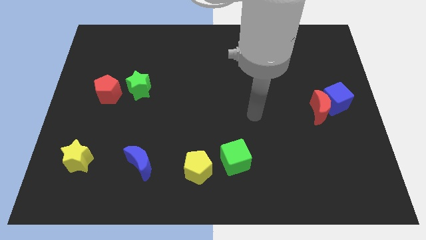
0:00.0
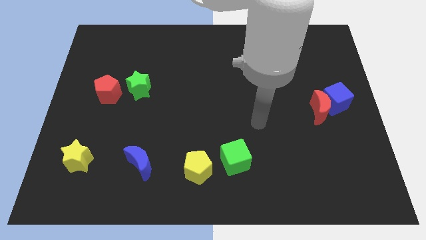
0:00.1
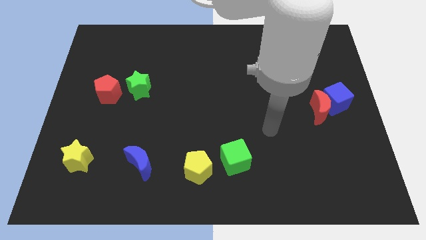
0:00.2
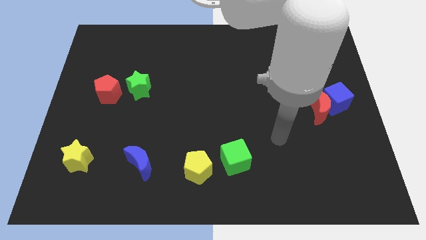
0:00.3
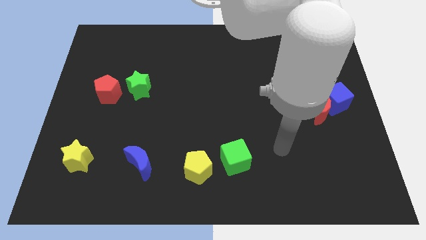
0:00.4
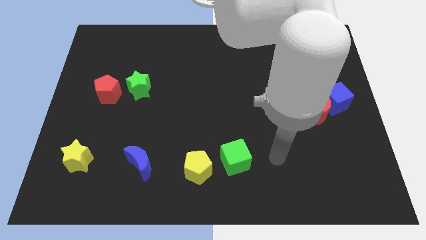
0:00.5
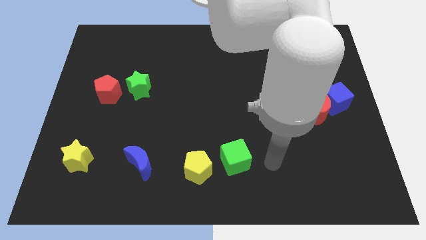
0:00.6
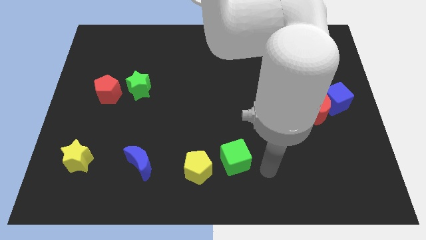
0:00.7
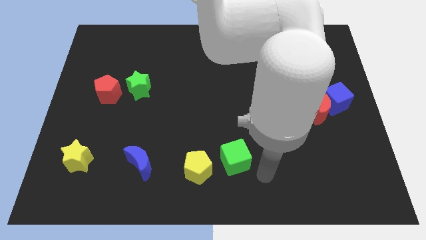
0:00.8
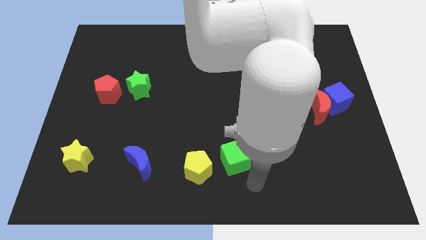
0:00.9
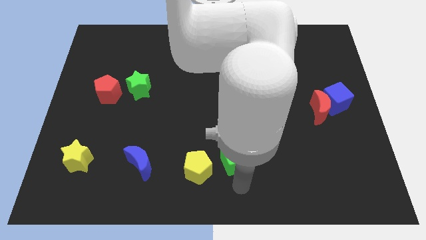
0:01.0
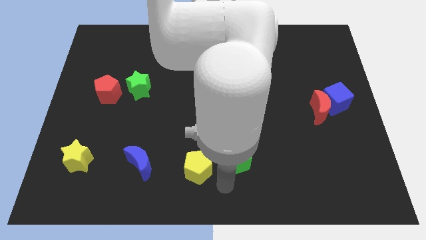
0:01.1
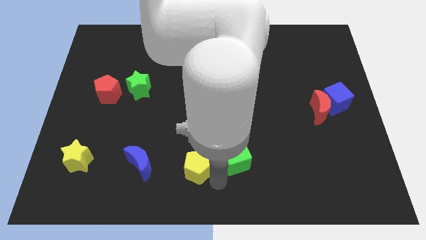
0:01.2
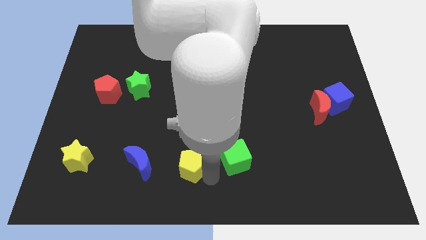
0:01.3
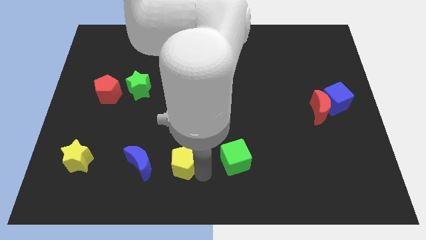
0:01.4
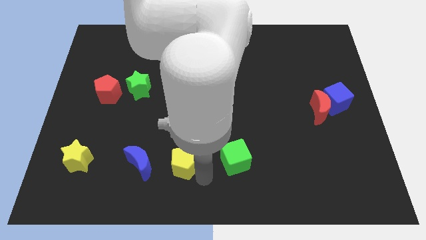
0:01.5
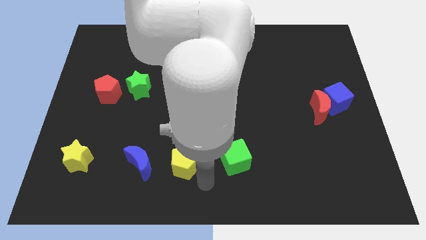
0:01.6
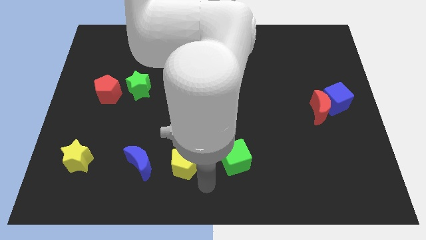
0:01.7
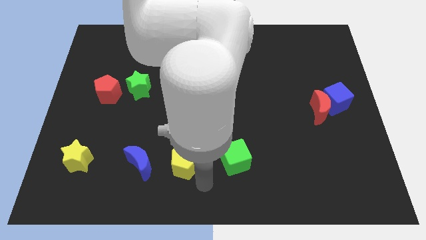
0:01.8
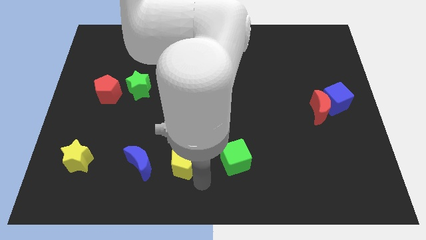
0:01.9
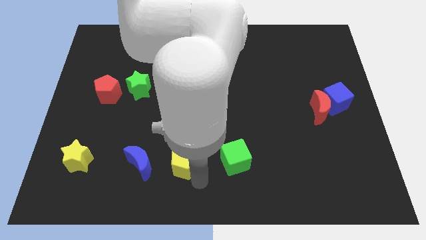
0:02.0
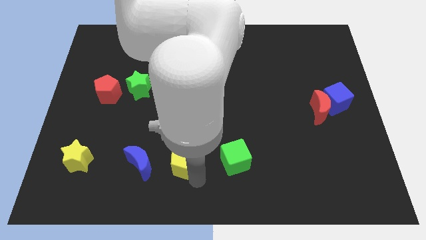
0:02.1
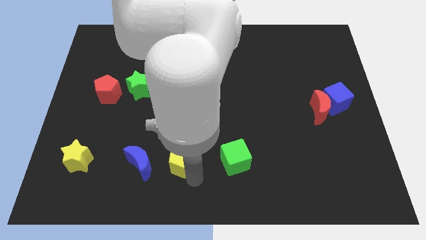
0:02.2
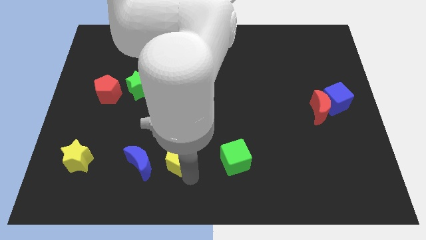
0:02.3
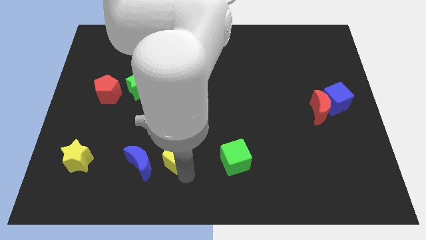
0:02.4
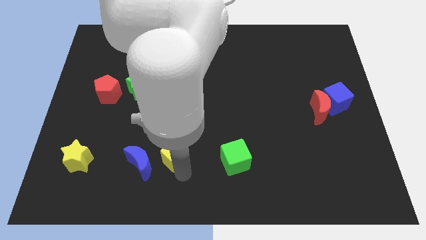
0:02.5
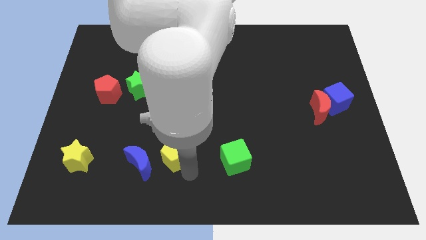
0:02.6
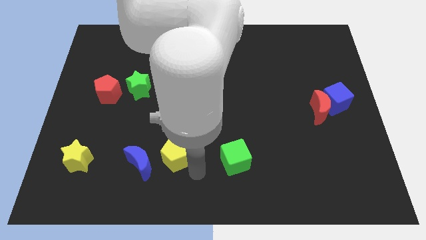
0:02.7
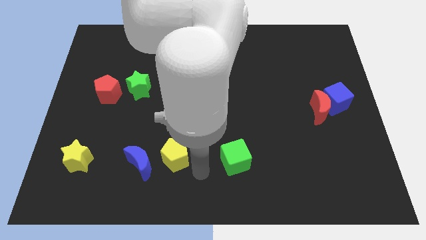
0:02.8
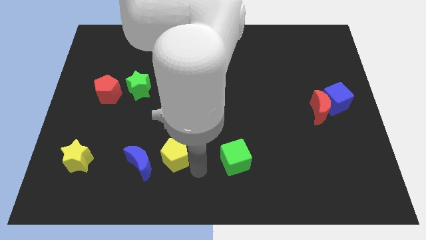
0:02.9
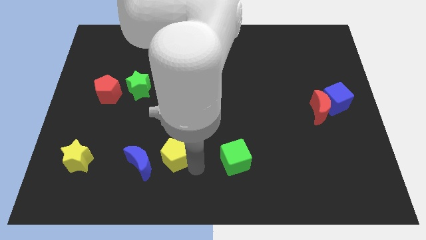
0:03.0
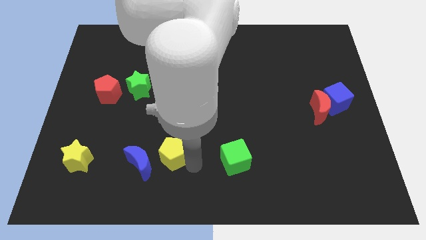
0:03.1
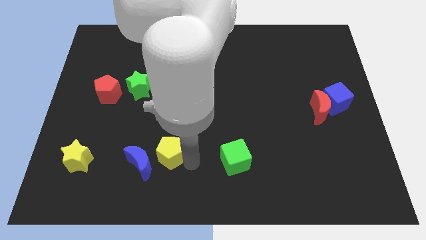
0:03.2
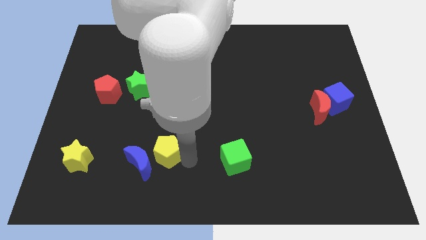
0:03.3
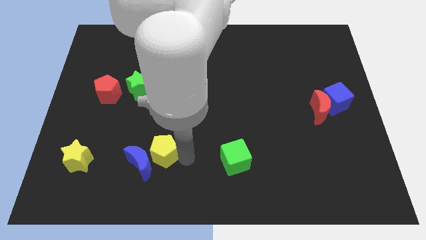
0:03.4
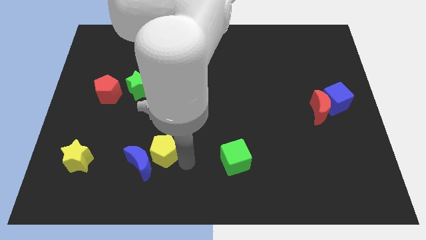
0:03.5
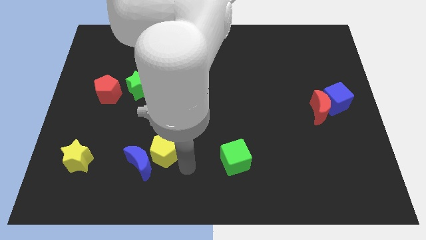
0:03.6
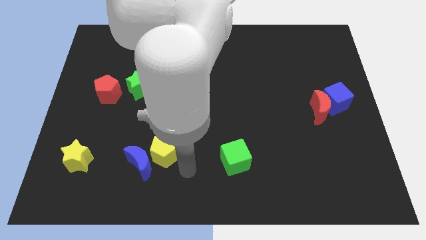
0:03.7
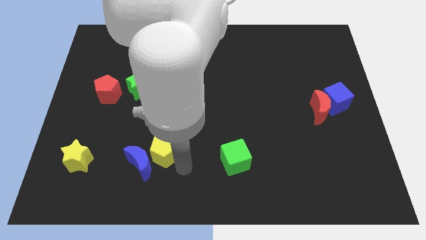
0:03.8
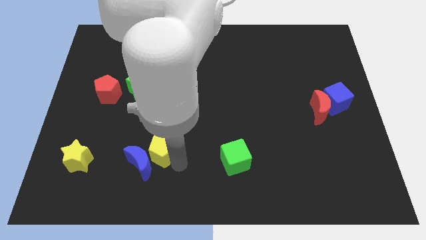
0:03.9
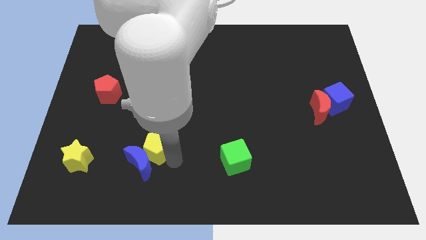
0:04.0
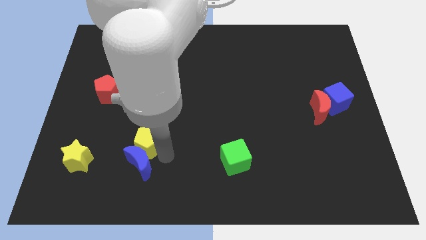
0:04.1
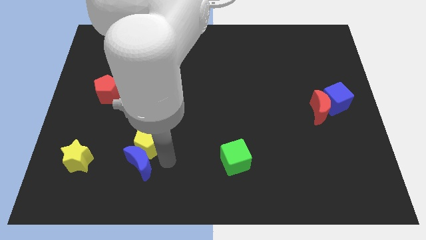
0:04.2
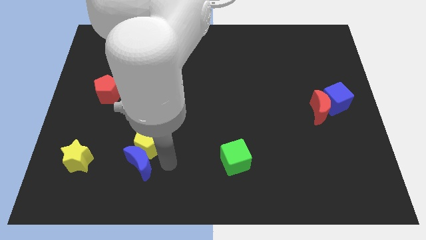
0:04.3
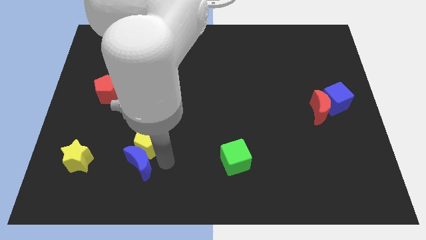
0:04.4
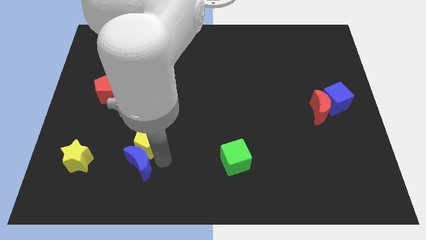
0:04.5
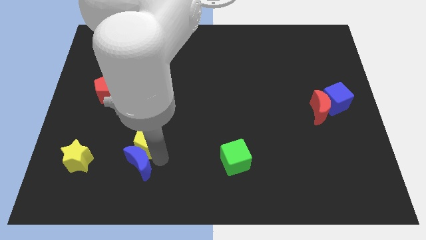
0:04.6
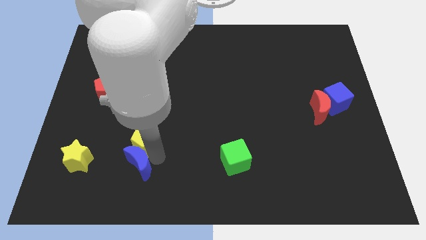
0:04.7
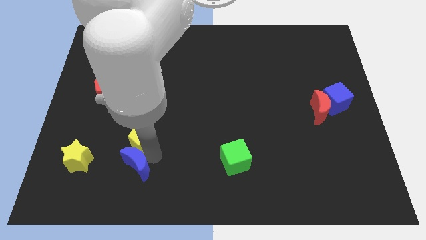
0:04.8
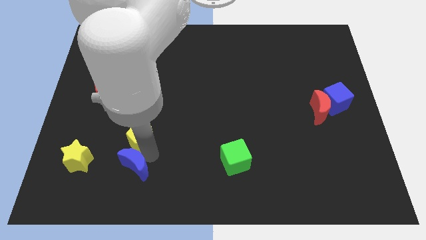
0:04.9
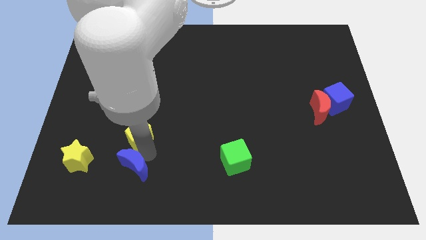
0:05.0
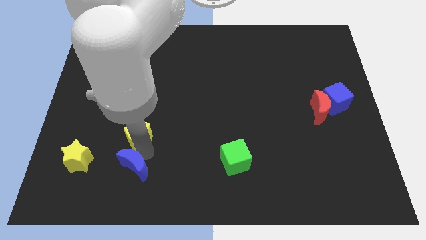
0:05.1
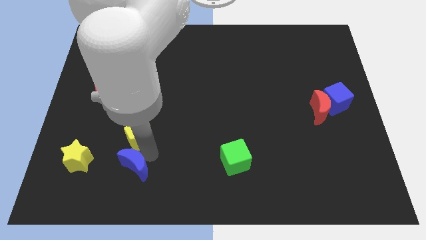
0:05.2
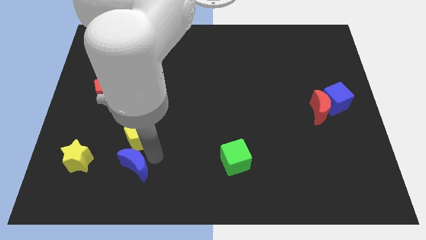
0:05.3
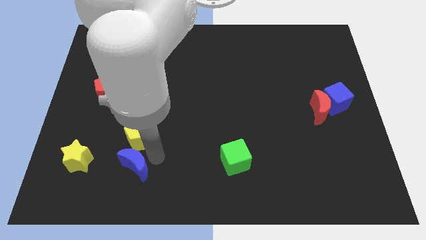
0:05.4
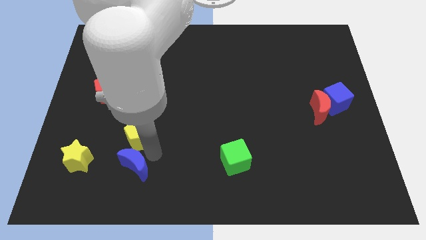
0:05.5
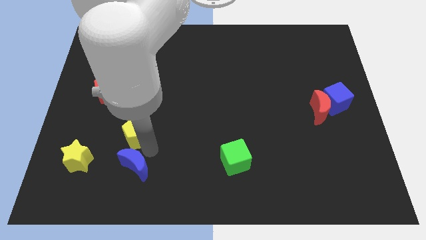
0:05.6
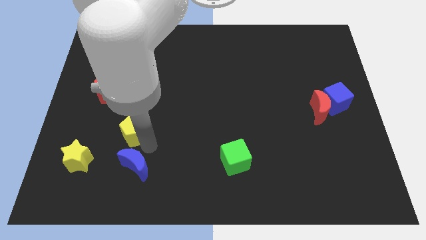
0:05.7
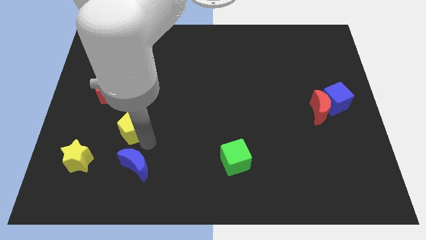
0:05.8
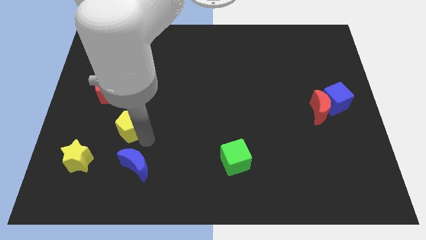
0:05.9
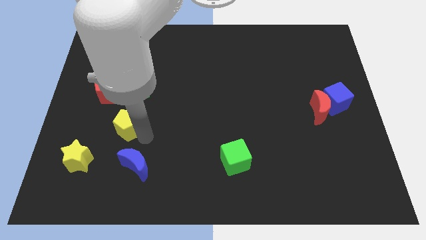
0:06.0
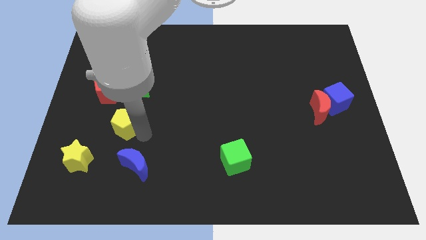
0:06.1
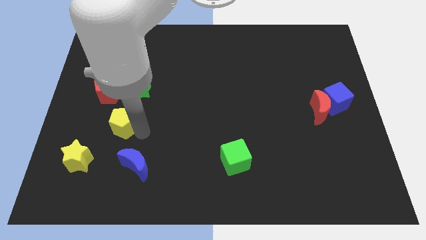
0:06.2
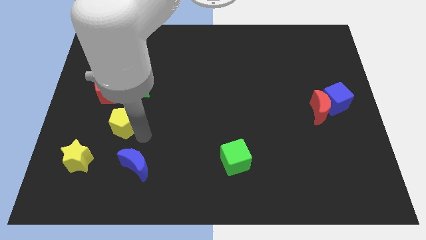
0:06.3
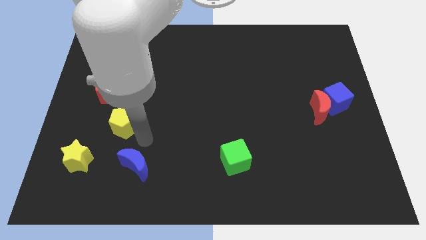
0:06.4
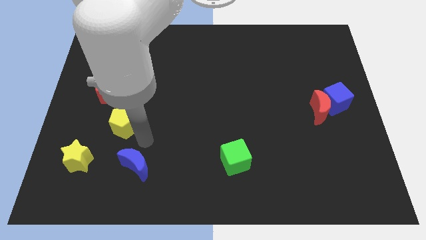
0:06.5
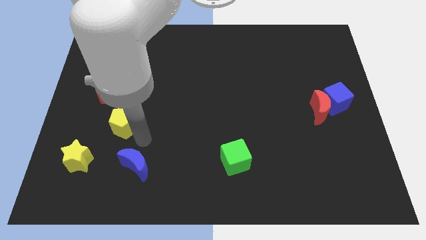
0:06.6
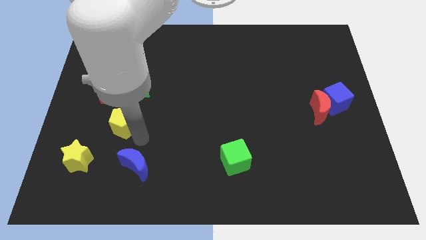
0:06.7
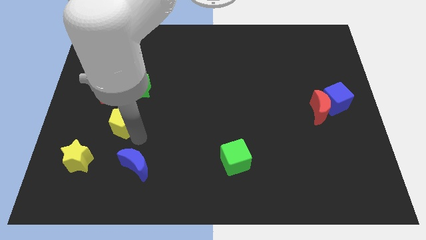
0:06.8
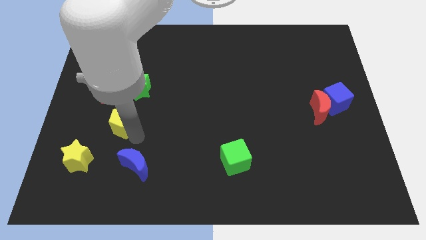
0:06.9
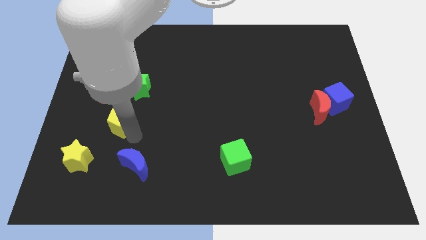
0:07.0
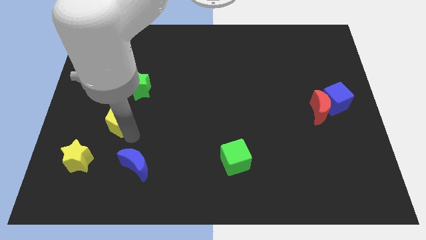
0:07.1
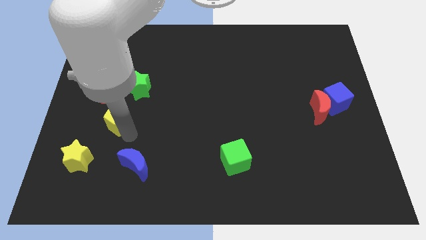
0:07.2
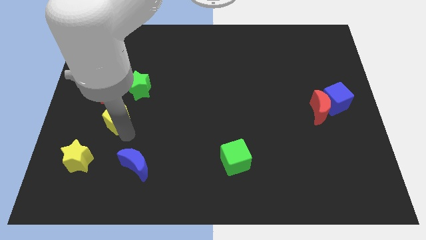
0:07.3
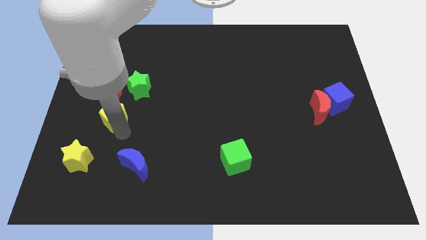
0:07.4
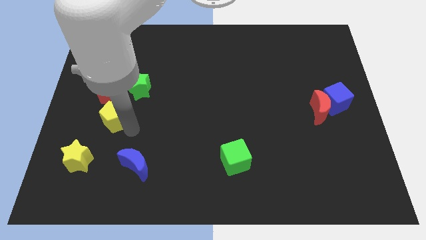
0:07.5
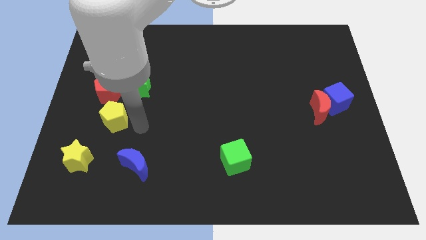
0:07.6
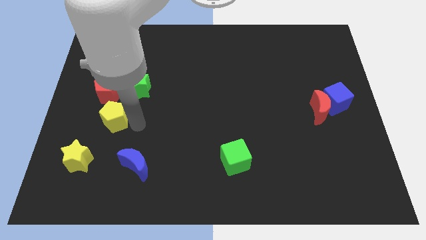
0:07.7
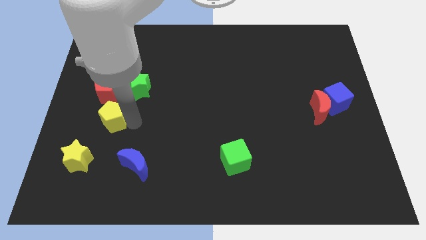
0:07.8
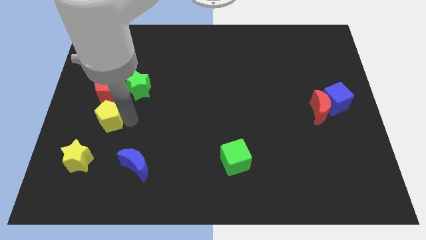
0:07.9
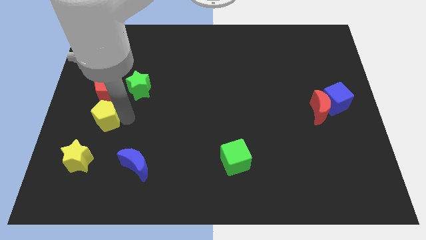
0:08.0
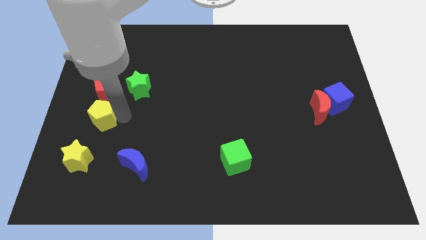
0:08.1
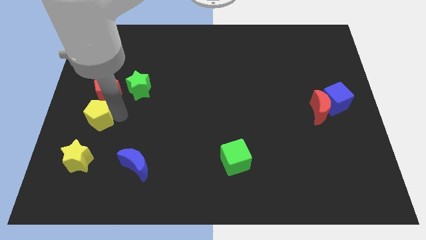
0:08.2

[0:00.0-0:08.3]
slide the yellow pentagon to the left side
